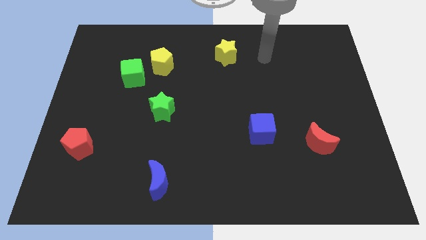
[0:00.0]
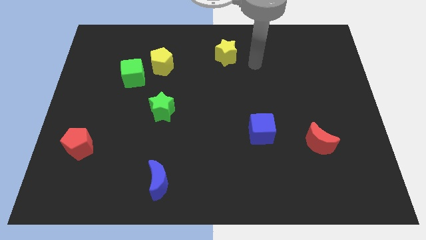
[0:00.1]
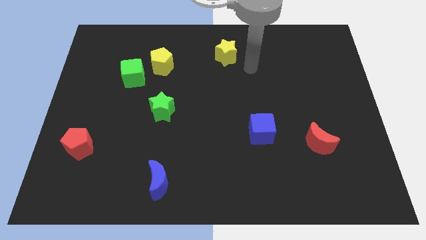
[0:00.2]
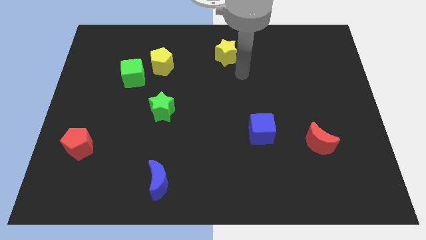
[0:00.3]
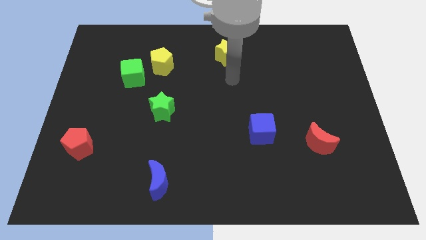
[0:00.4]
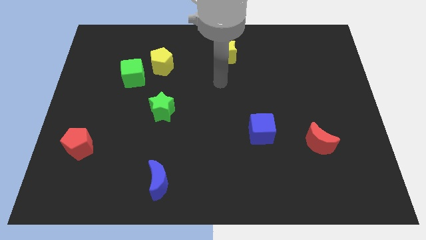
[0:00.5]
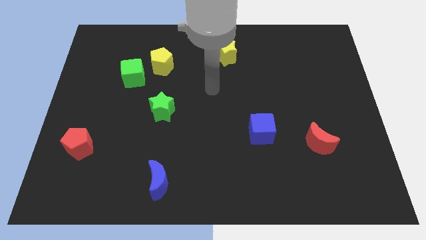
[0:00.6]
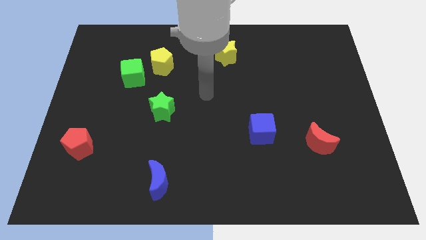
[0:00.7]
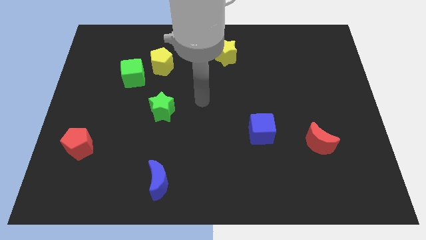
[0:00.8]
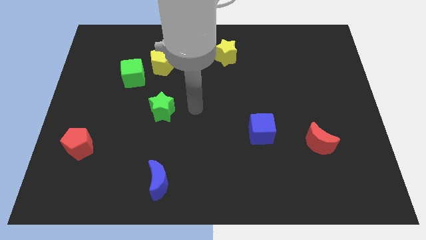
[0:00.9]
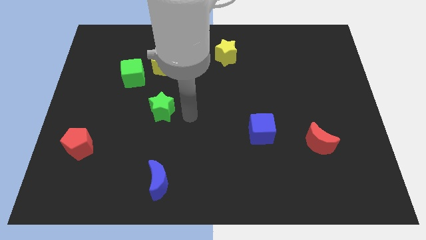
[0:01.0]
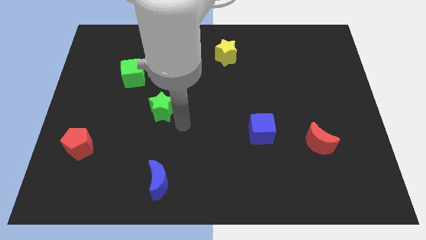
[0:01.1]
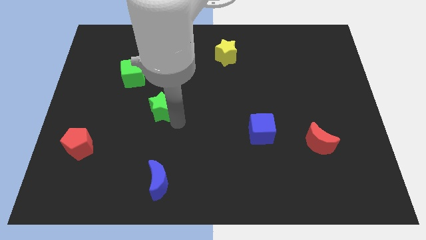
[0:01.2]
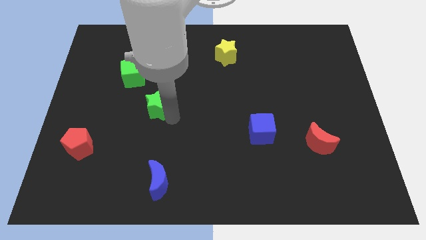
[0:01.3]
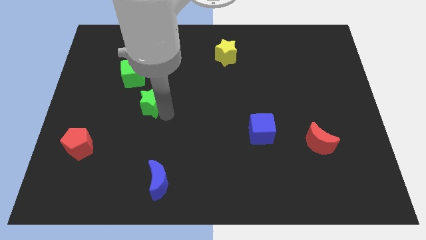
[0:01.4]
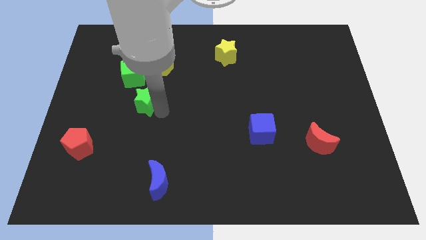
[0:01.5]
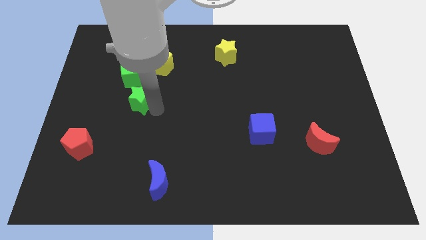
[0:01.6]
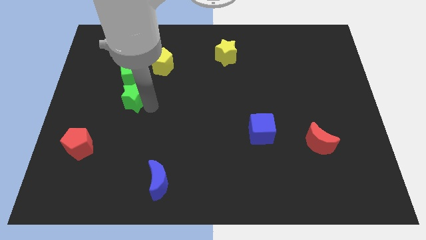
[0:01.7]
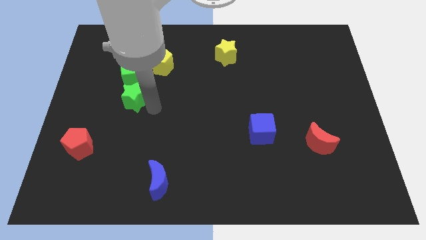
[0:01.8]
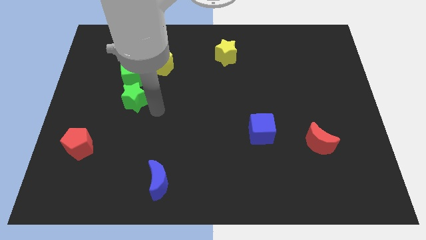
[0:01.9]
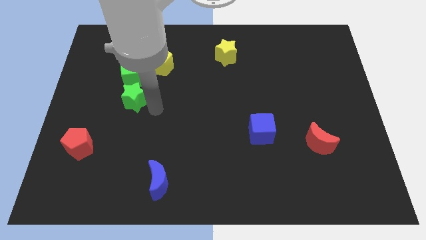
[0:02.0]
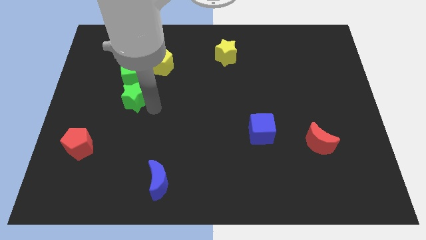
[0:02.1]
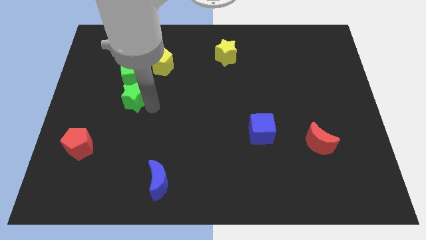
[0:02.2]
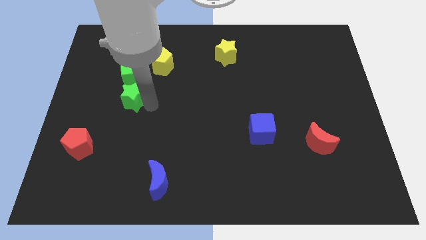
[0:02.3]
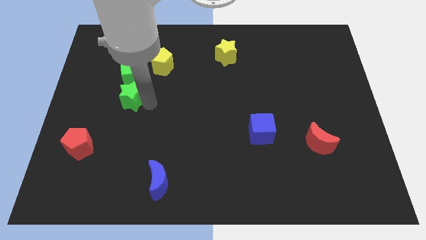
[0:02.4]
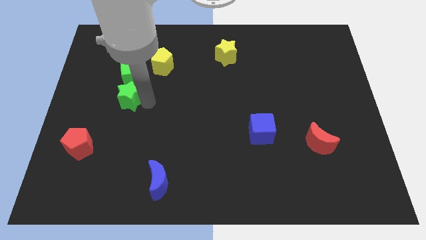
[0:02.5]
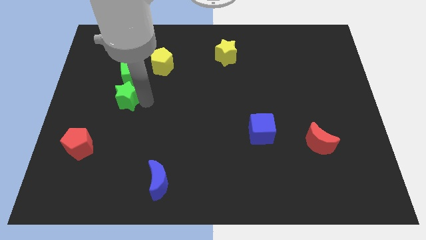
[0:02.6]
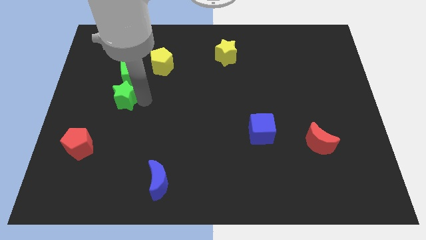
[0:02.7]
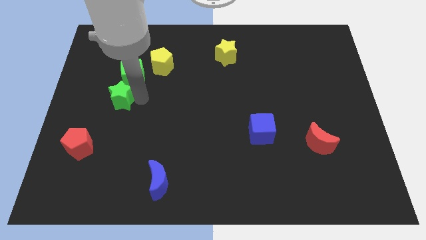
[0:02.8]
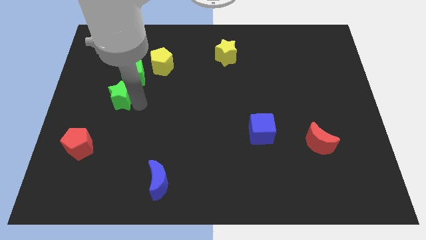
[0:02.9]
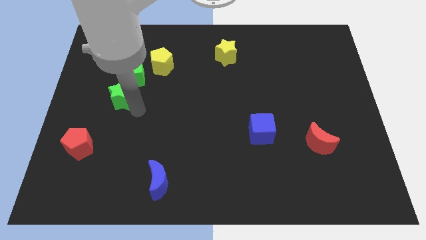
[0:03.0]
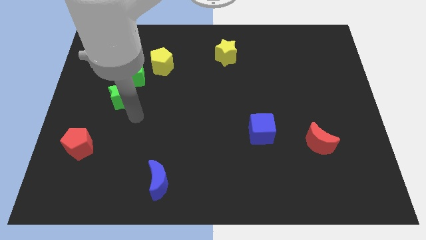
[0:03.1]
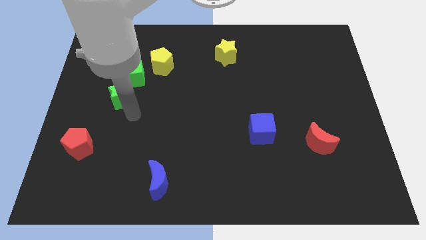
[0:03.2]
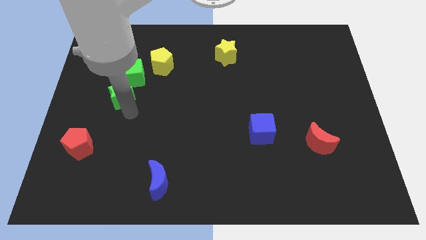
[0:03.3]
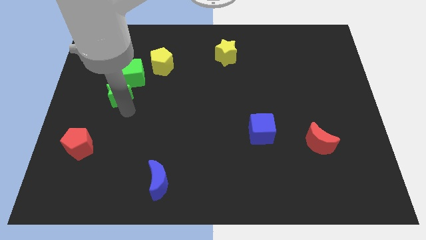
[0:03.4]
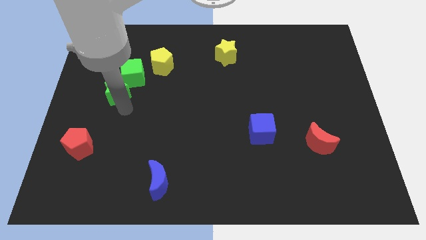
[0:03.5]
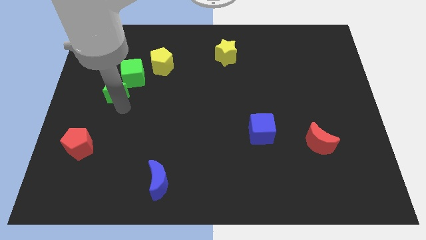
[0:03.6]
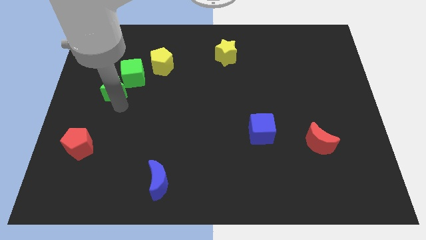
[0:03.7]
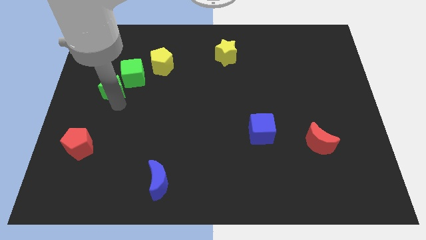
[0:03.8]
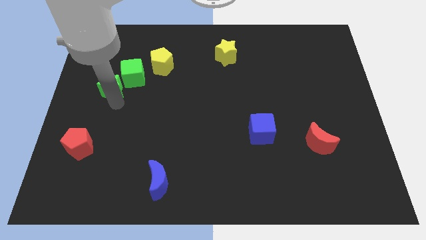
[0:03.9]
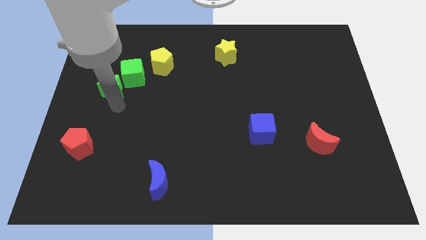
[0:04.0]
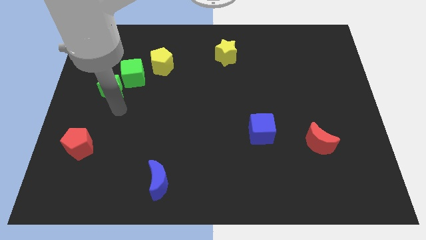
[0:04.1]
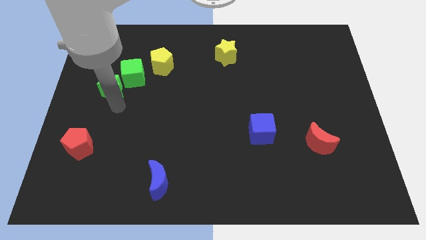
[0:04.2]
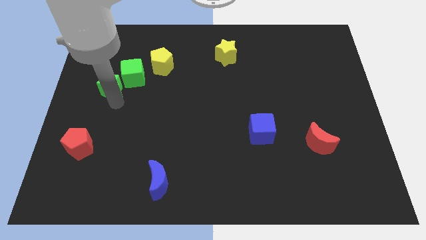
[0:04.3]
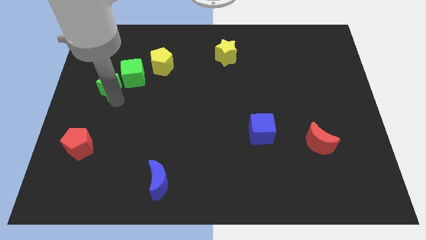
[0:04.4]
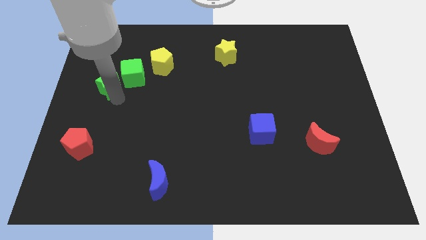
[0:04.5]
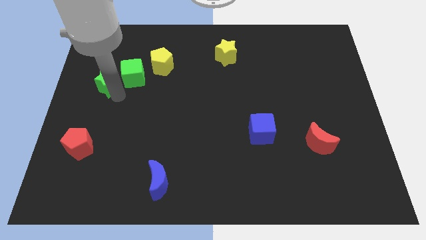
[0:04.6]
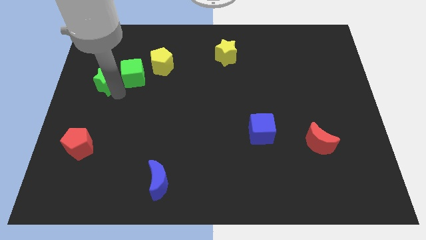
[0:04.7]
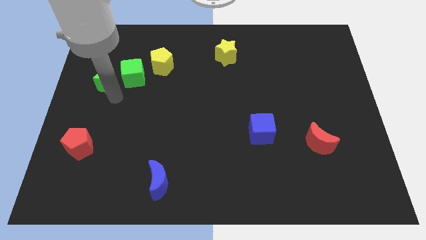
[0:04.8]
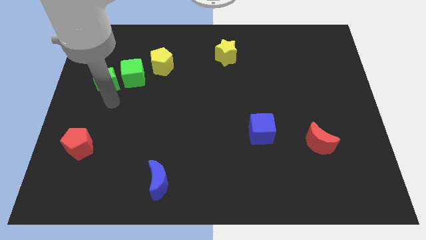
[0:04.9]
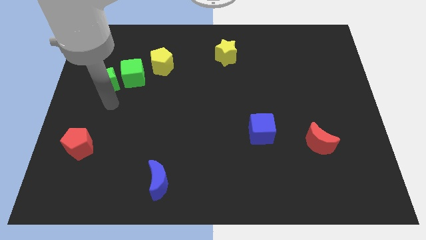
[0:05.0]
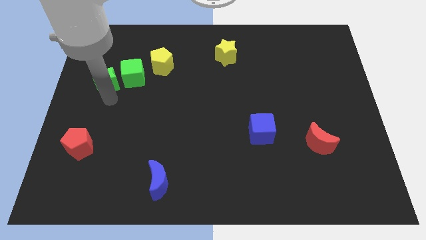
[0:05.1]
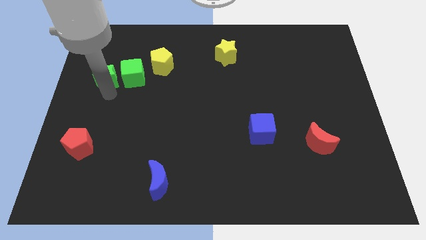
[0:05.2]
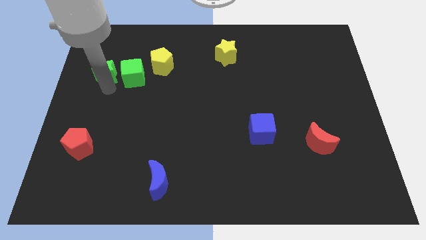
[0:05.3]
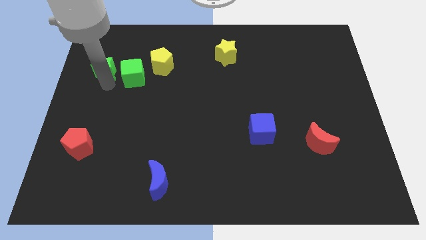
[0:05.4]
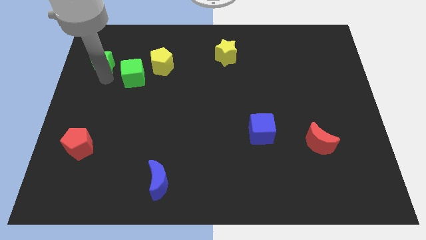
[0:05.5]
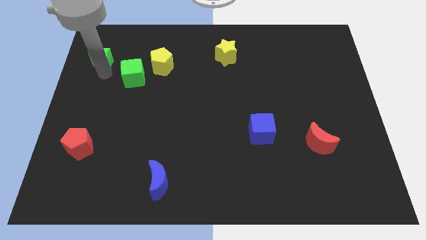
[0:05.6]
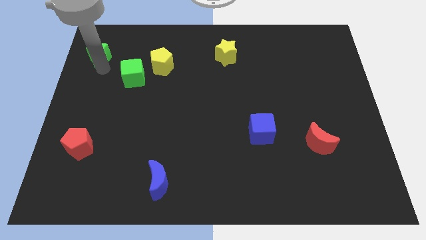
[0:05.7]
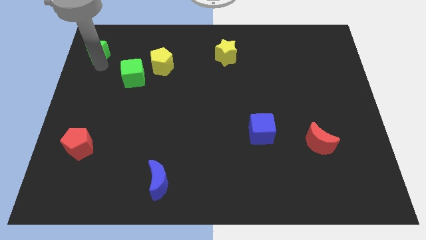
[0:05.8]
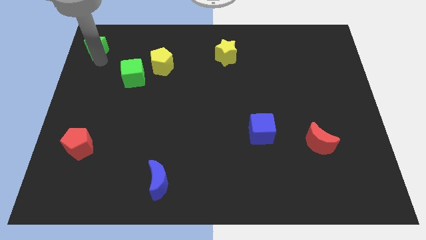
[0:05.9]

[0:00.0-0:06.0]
put the green star to the top left corner

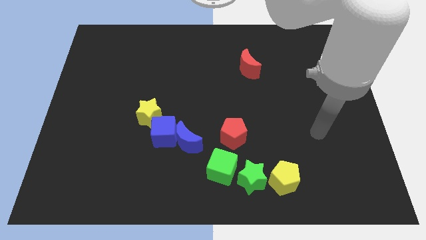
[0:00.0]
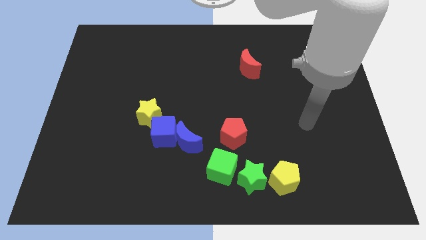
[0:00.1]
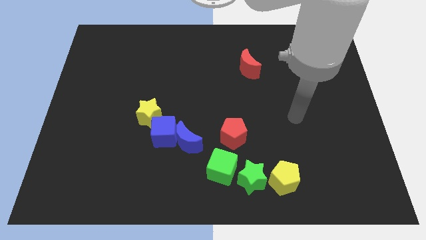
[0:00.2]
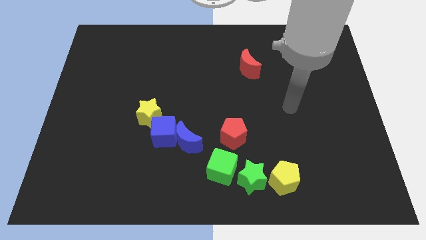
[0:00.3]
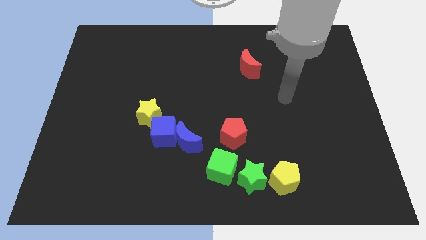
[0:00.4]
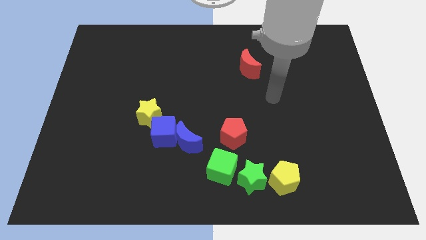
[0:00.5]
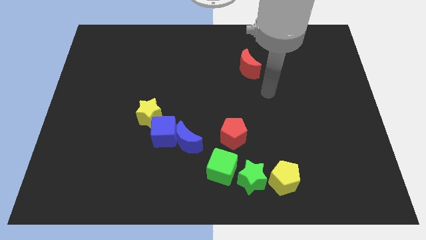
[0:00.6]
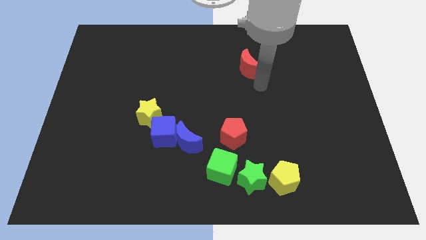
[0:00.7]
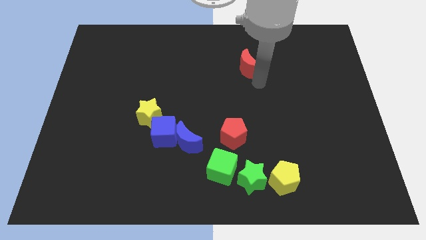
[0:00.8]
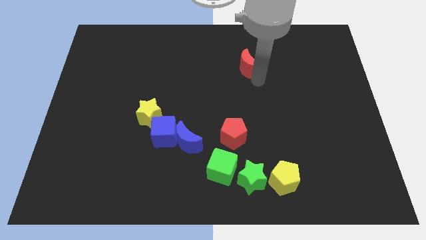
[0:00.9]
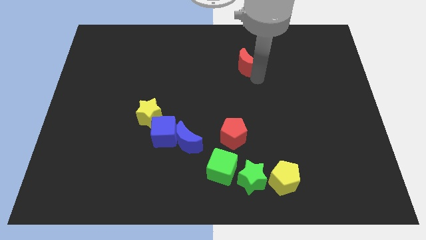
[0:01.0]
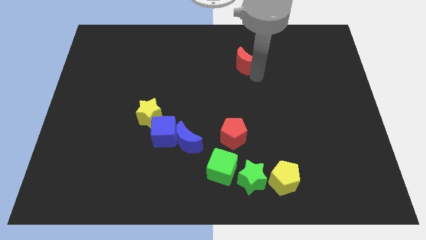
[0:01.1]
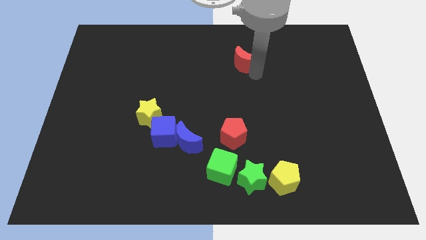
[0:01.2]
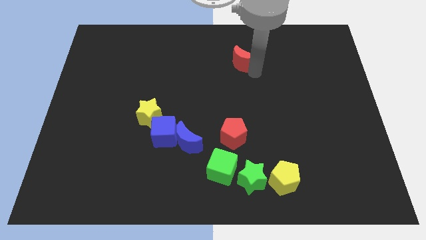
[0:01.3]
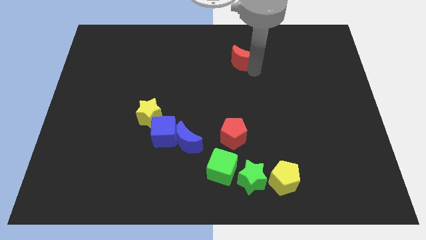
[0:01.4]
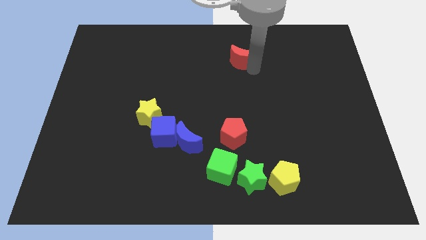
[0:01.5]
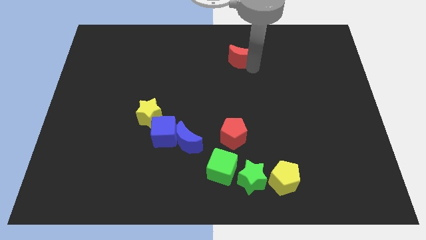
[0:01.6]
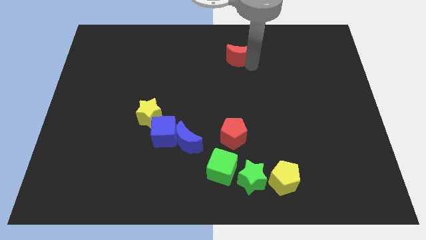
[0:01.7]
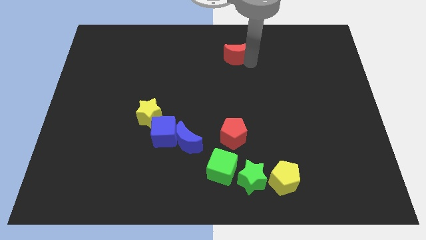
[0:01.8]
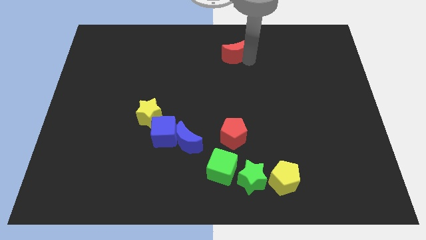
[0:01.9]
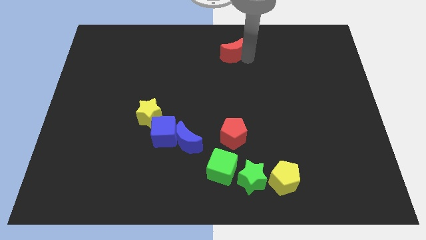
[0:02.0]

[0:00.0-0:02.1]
slide the red moon to the top
